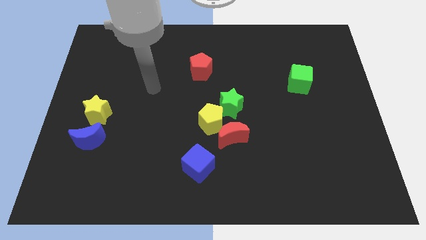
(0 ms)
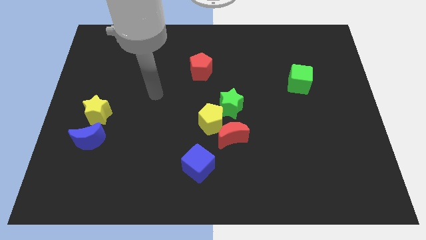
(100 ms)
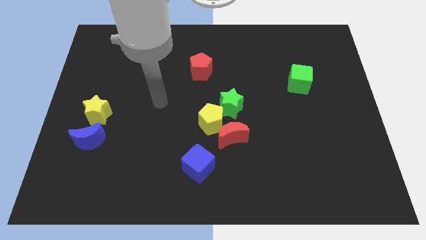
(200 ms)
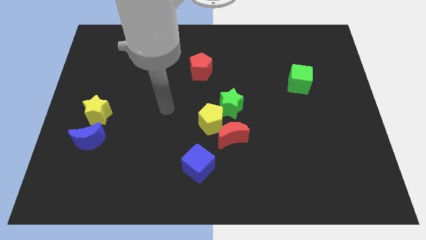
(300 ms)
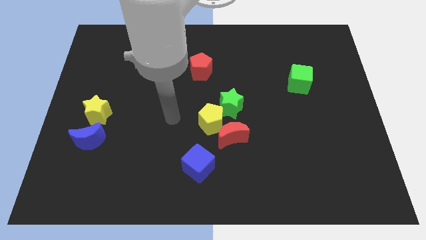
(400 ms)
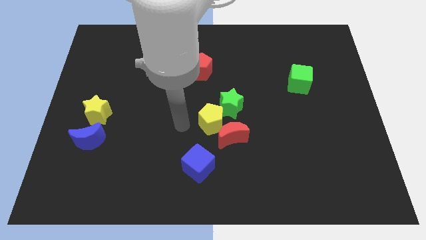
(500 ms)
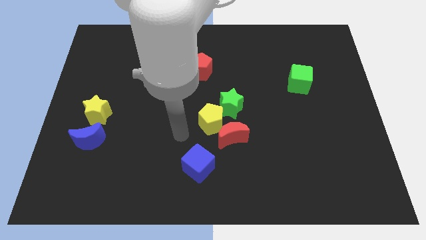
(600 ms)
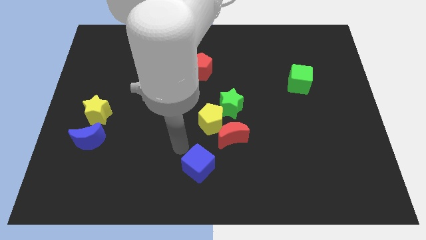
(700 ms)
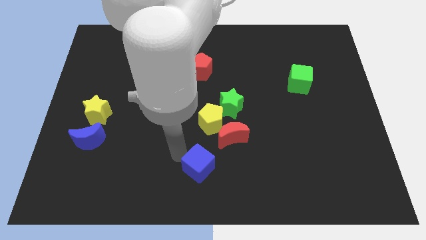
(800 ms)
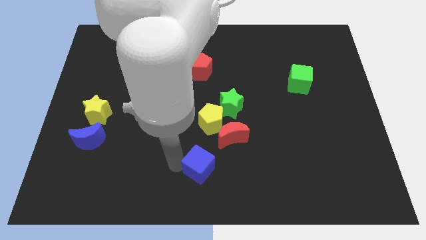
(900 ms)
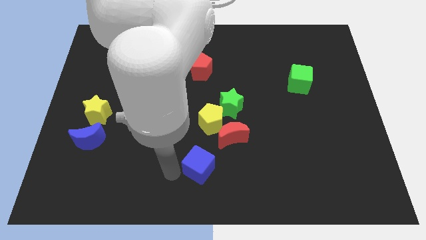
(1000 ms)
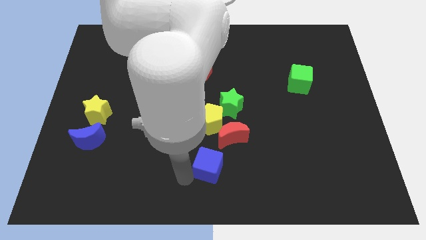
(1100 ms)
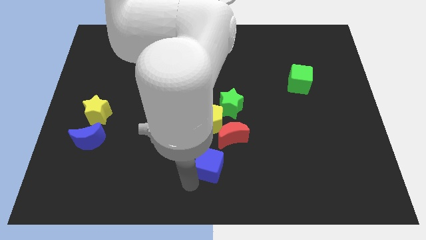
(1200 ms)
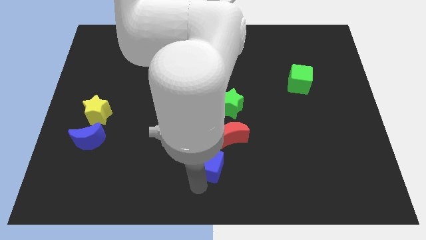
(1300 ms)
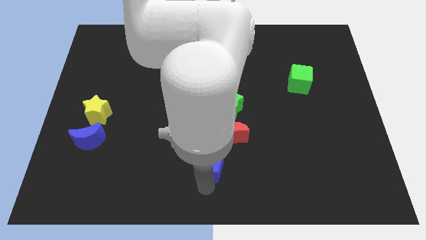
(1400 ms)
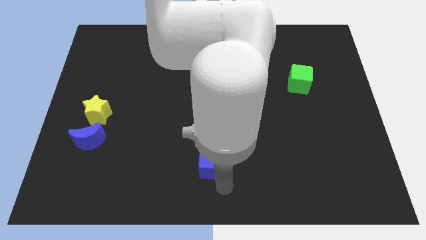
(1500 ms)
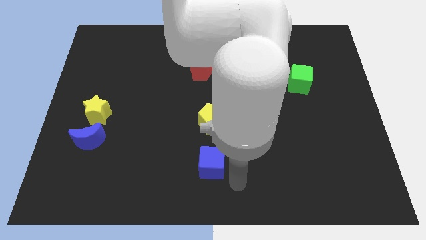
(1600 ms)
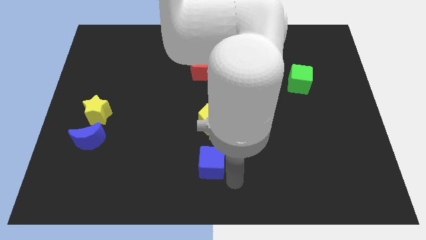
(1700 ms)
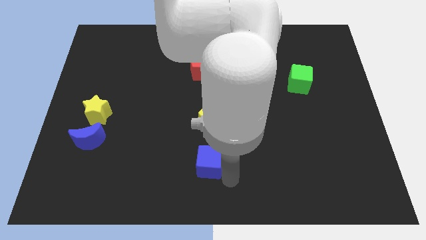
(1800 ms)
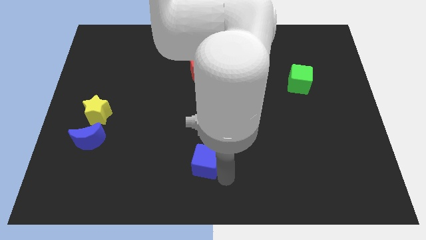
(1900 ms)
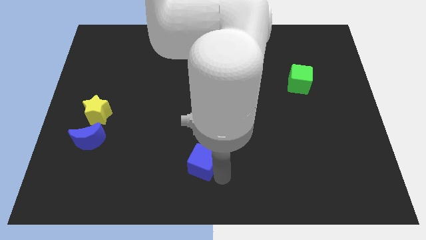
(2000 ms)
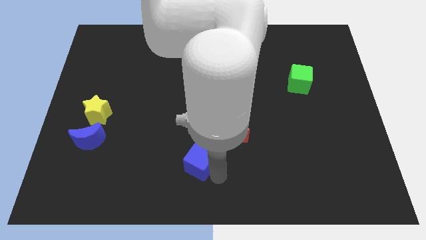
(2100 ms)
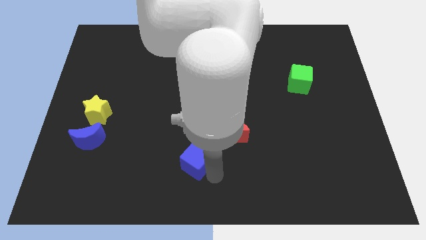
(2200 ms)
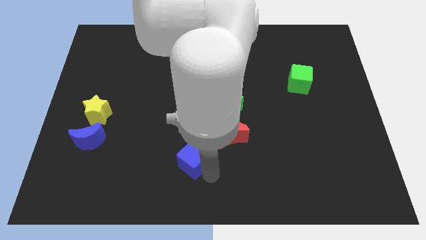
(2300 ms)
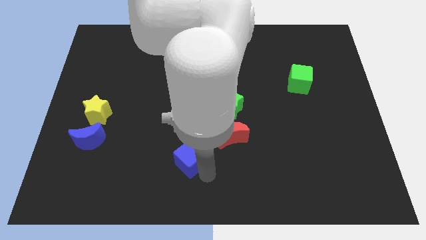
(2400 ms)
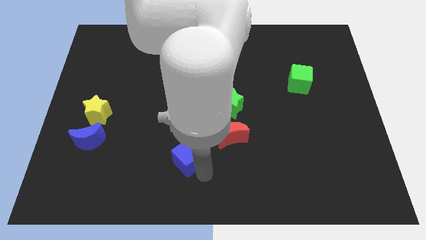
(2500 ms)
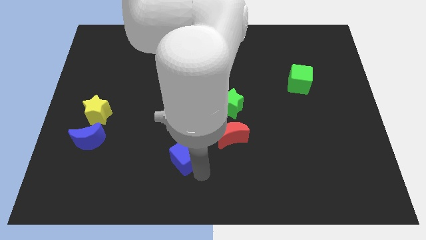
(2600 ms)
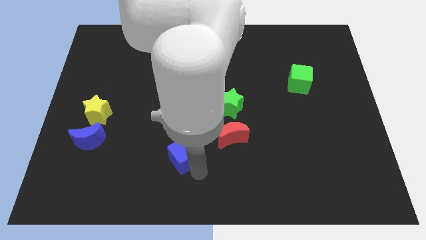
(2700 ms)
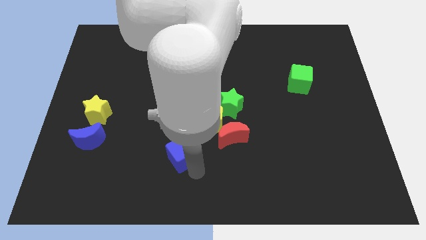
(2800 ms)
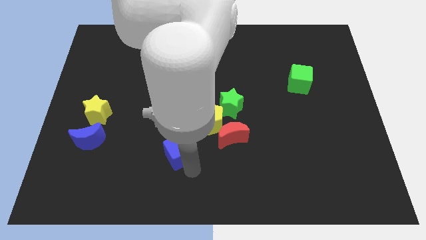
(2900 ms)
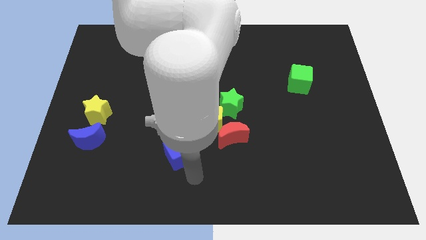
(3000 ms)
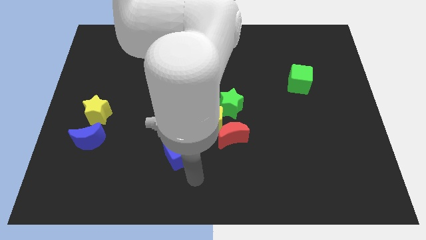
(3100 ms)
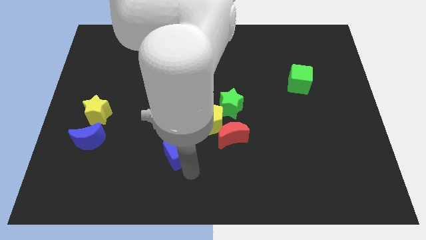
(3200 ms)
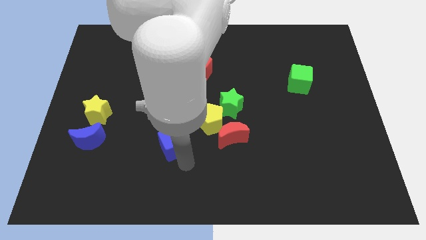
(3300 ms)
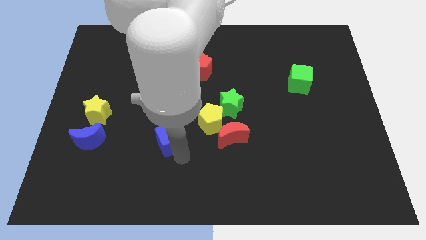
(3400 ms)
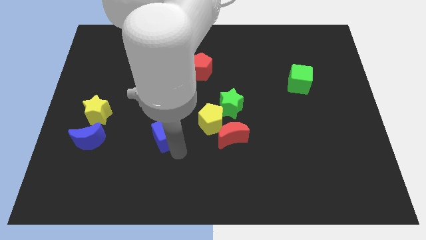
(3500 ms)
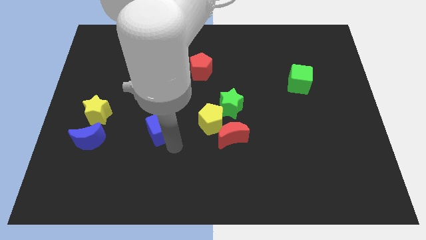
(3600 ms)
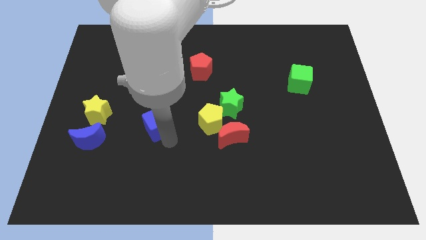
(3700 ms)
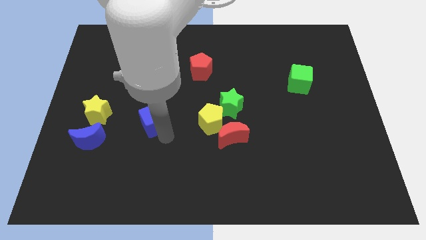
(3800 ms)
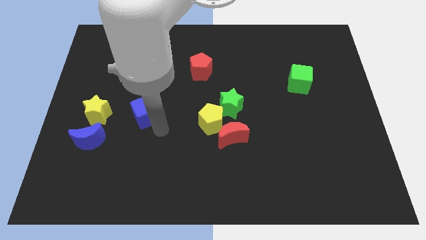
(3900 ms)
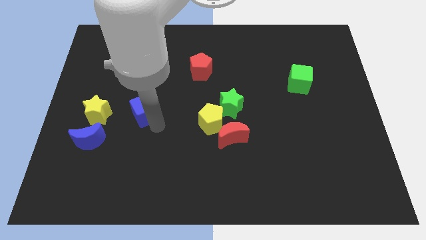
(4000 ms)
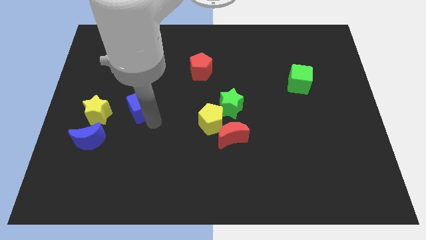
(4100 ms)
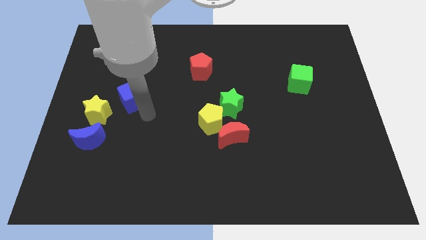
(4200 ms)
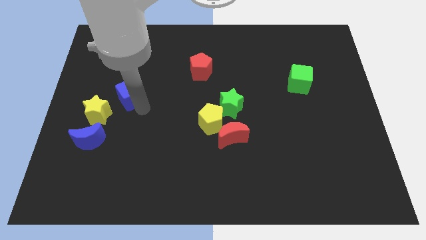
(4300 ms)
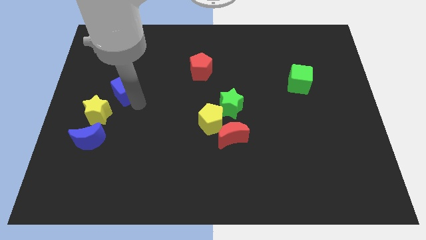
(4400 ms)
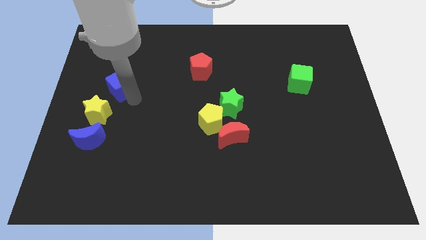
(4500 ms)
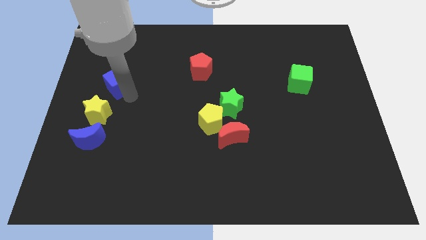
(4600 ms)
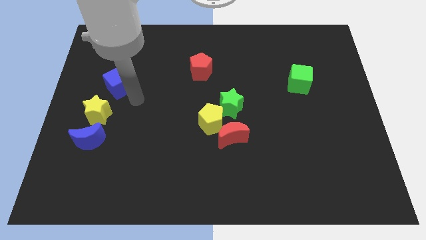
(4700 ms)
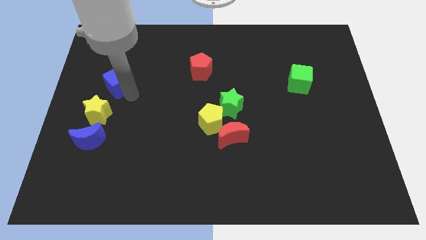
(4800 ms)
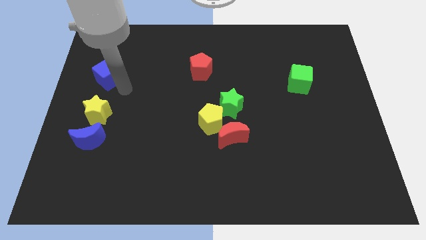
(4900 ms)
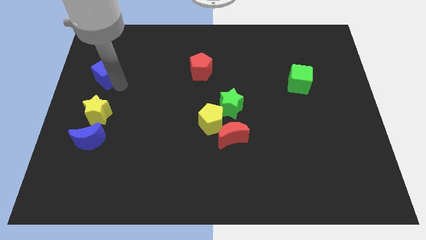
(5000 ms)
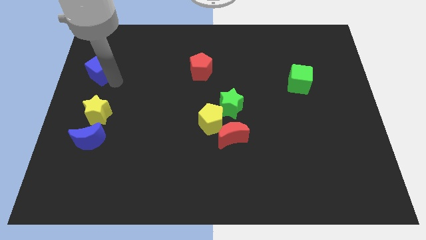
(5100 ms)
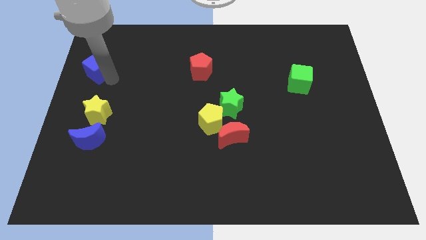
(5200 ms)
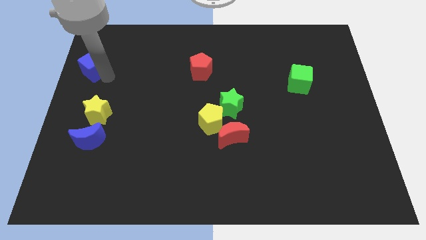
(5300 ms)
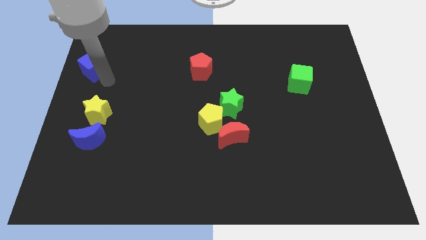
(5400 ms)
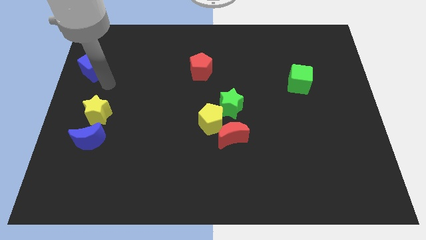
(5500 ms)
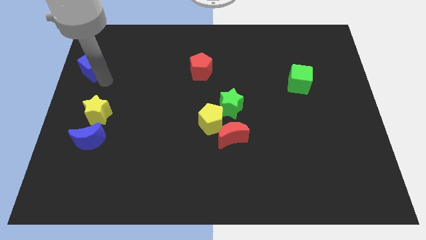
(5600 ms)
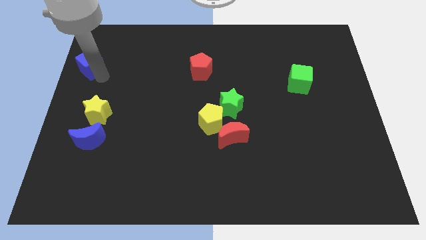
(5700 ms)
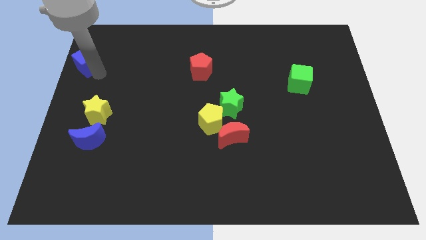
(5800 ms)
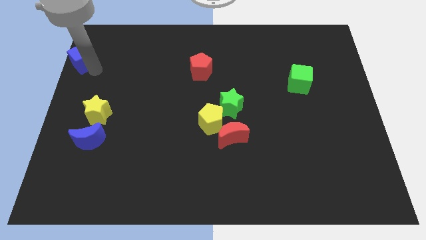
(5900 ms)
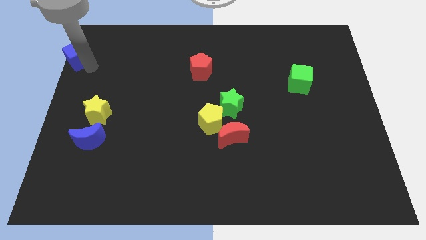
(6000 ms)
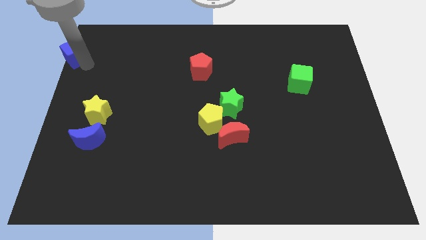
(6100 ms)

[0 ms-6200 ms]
put the blue cube to the top left of the board
